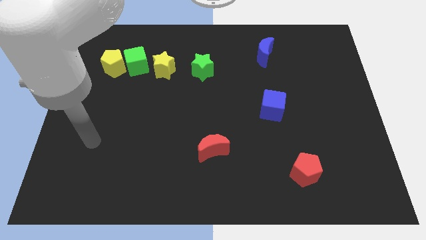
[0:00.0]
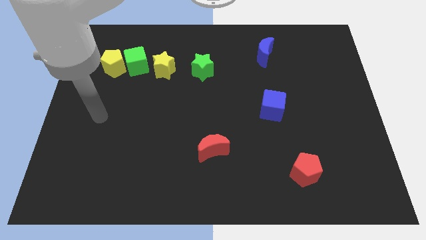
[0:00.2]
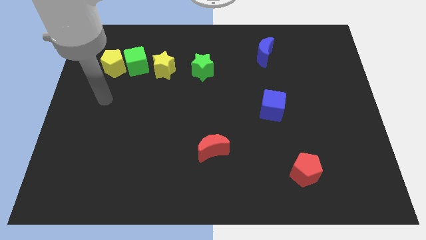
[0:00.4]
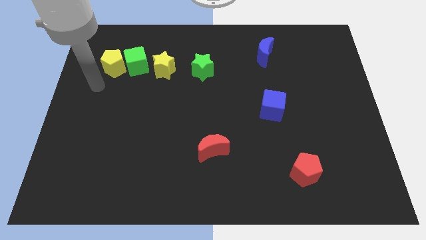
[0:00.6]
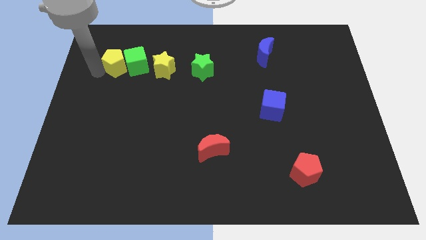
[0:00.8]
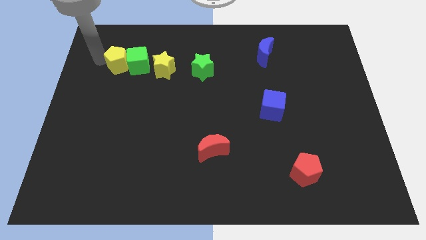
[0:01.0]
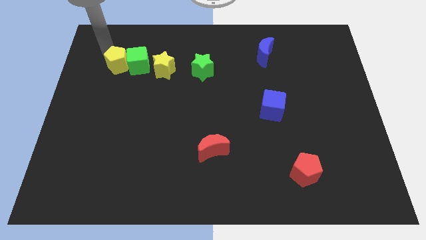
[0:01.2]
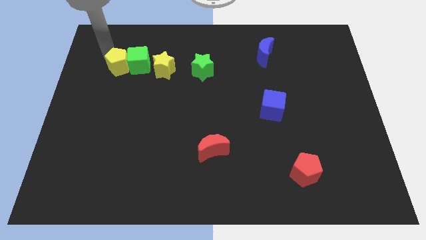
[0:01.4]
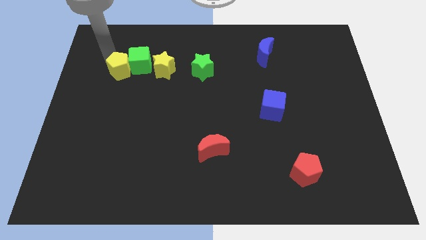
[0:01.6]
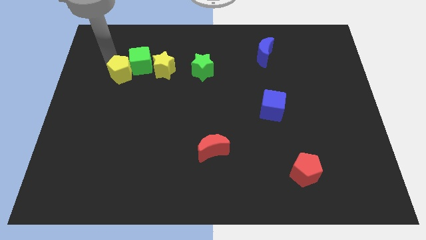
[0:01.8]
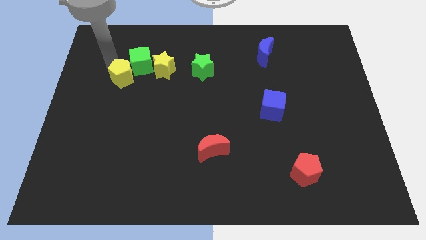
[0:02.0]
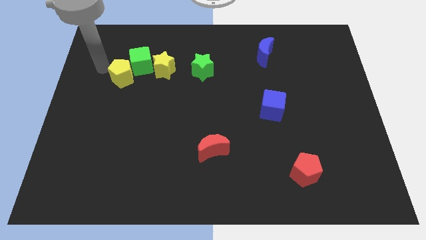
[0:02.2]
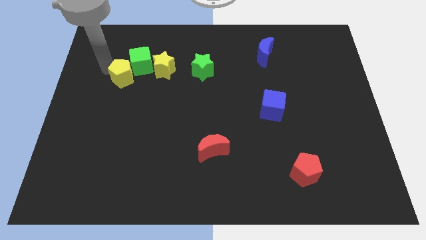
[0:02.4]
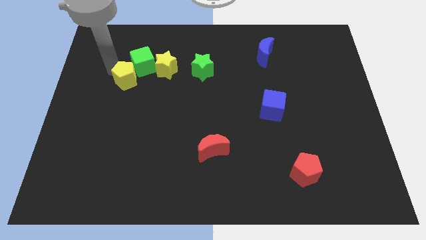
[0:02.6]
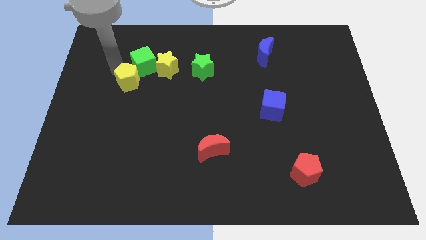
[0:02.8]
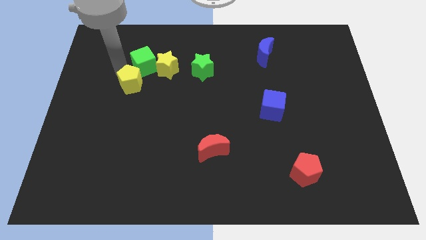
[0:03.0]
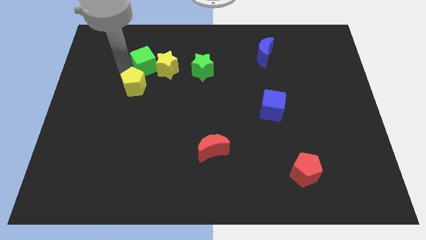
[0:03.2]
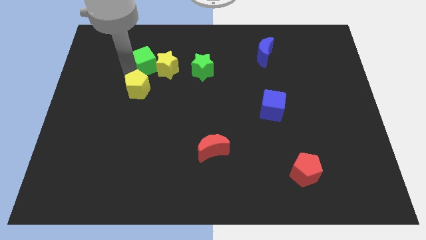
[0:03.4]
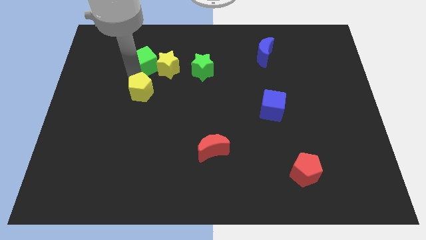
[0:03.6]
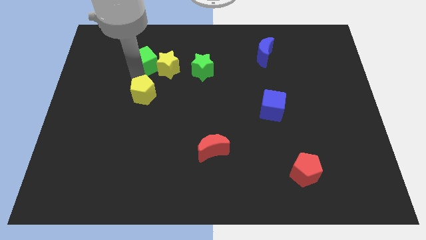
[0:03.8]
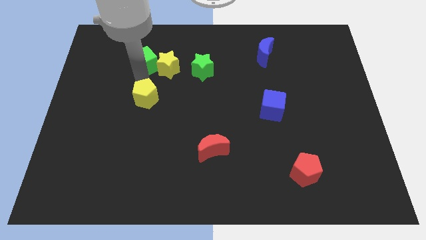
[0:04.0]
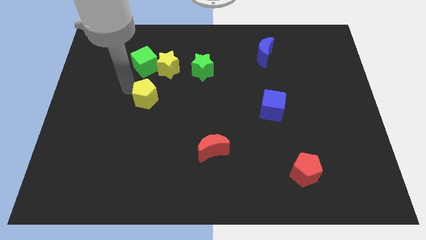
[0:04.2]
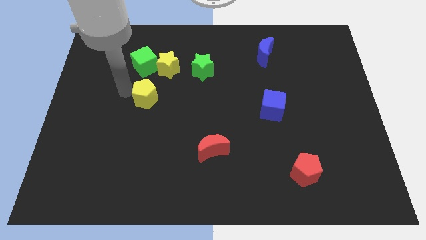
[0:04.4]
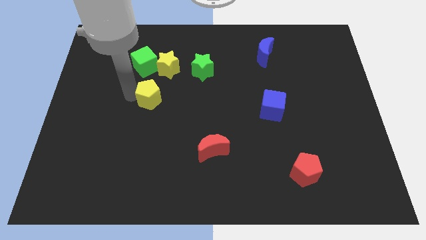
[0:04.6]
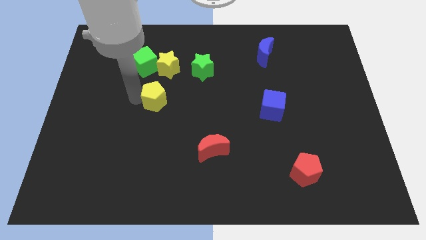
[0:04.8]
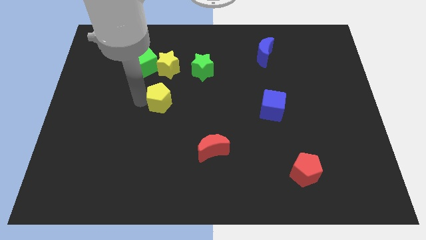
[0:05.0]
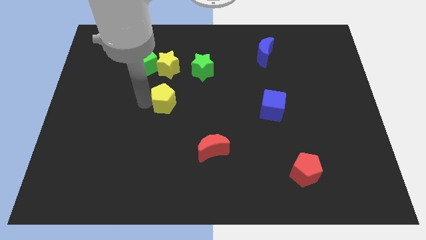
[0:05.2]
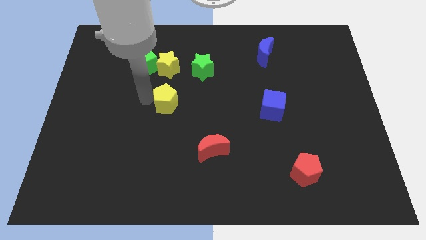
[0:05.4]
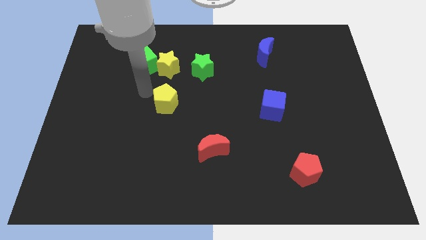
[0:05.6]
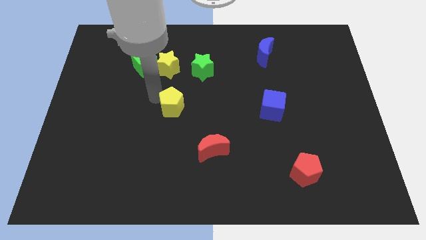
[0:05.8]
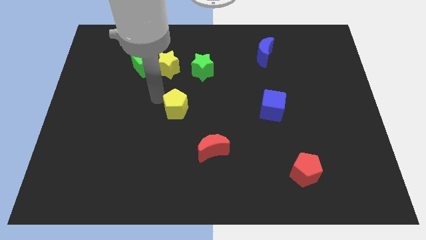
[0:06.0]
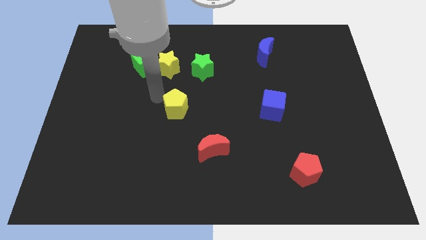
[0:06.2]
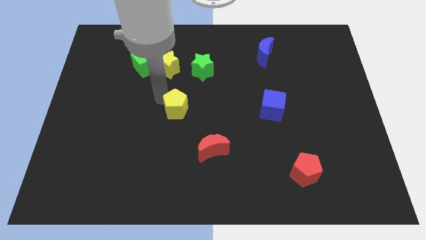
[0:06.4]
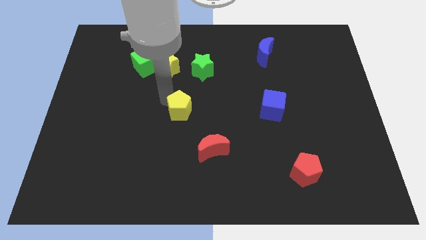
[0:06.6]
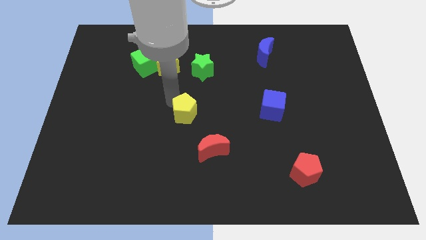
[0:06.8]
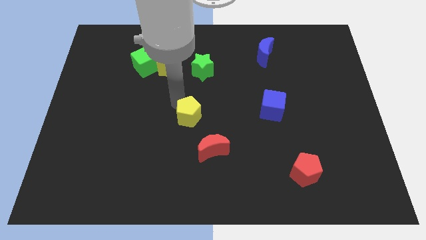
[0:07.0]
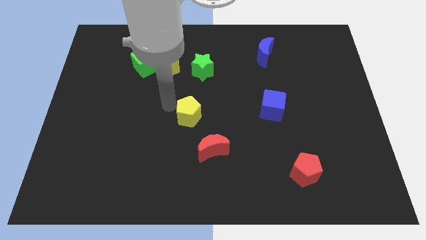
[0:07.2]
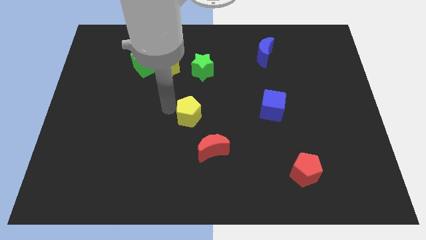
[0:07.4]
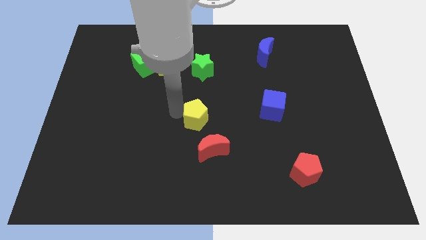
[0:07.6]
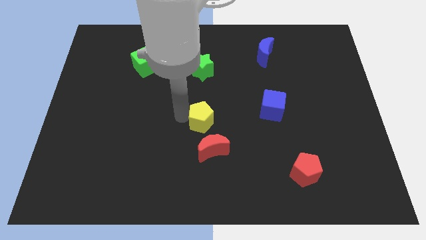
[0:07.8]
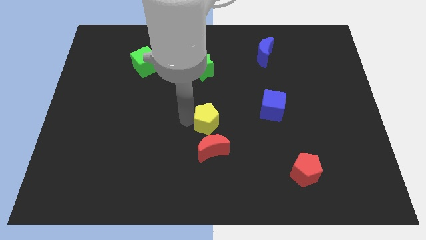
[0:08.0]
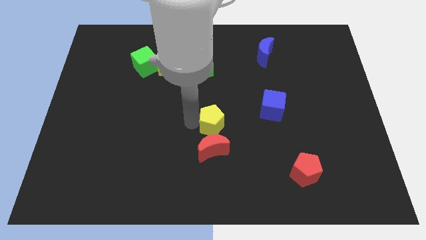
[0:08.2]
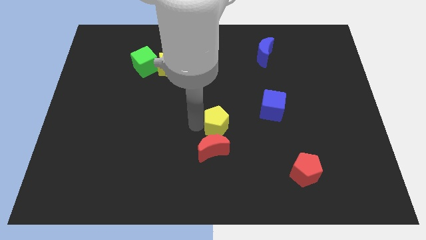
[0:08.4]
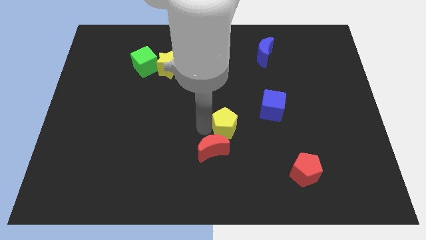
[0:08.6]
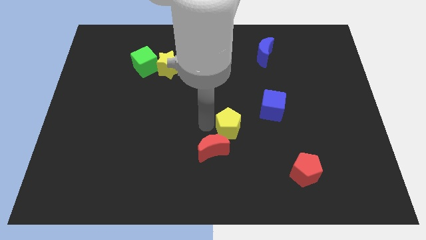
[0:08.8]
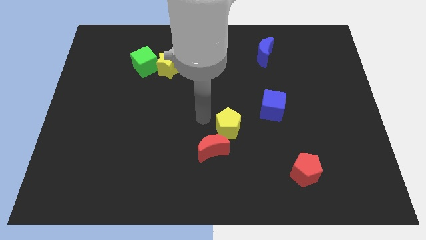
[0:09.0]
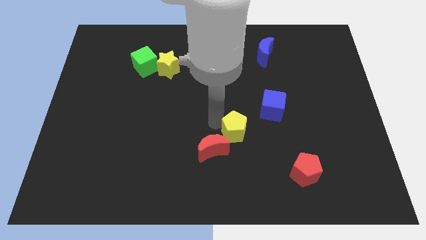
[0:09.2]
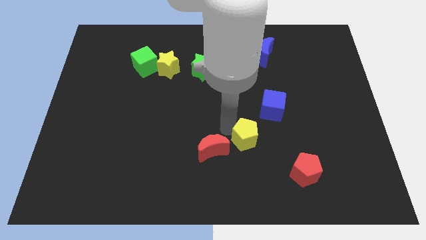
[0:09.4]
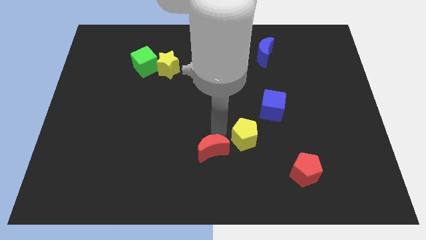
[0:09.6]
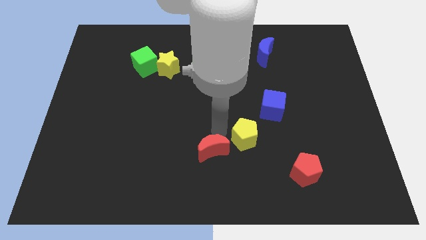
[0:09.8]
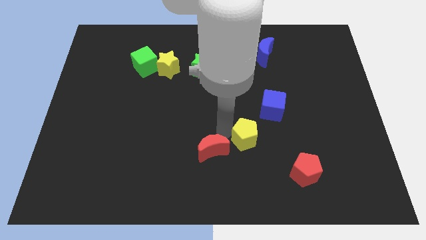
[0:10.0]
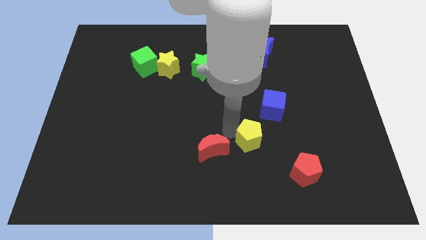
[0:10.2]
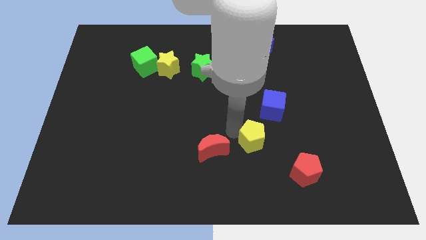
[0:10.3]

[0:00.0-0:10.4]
slide the yellow pentagon to the top left of the red pentagon

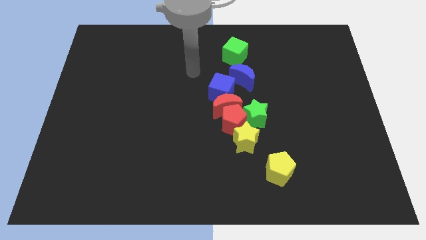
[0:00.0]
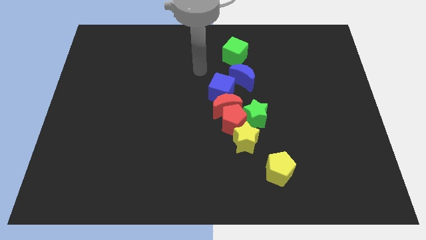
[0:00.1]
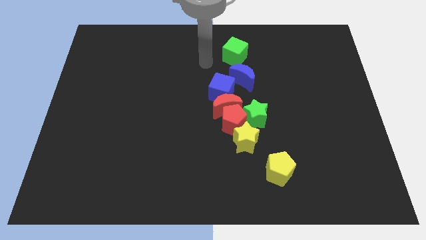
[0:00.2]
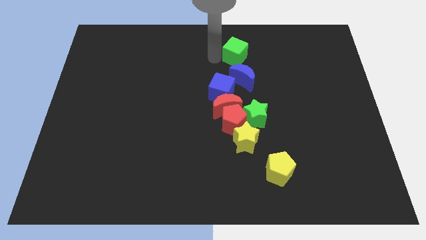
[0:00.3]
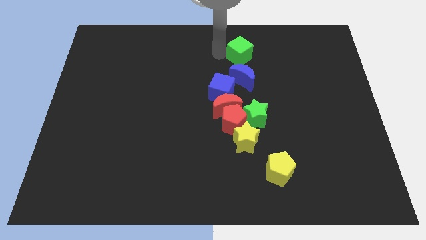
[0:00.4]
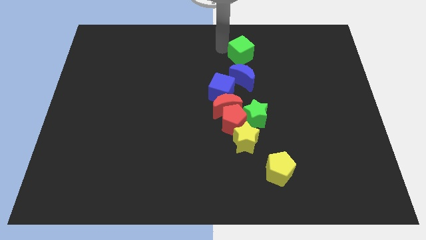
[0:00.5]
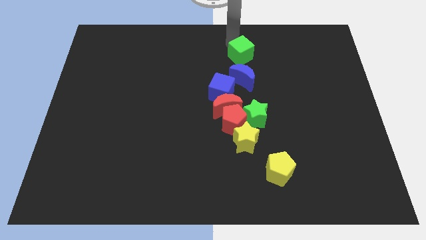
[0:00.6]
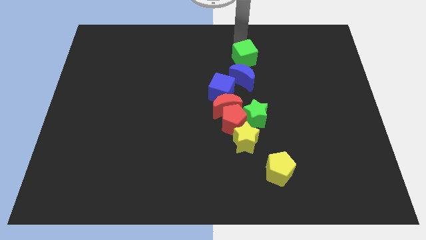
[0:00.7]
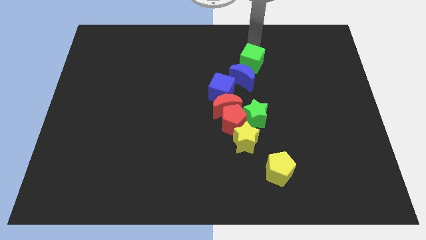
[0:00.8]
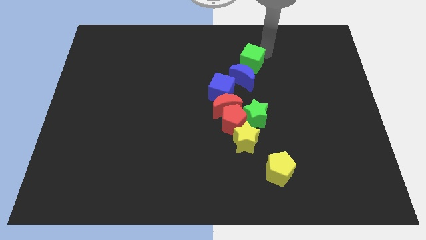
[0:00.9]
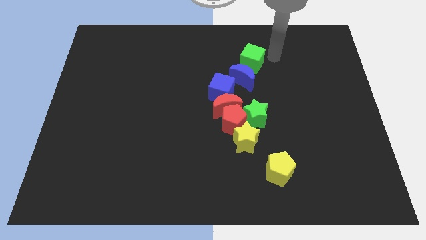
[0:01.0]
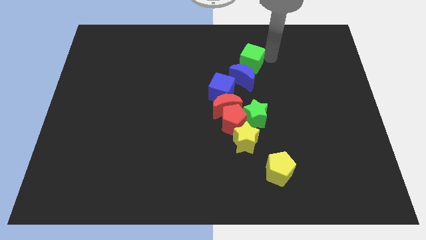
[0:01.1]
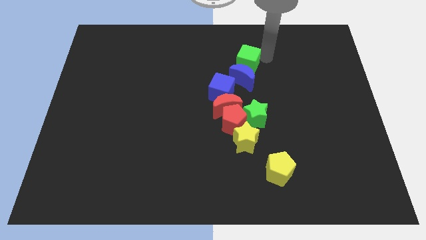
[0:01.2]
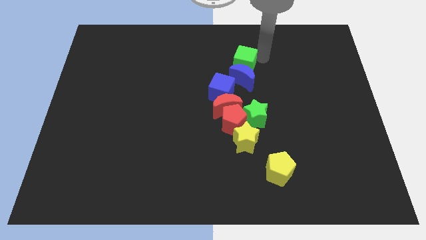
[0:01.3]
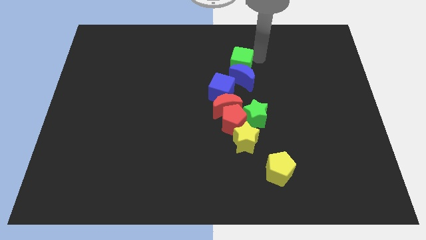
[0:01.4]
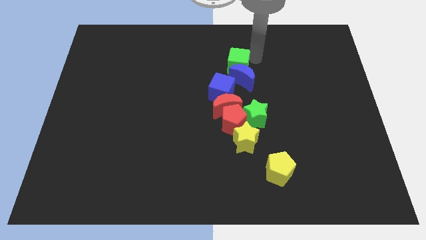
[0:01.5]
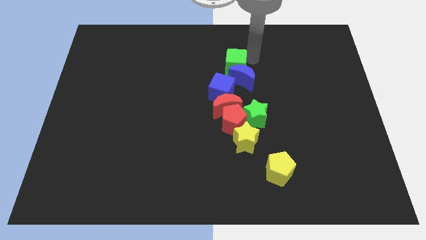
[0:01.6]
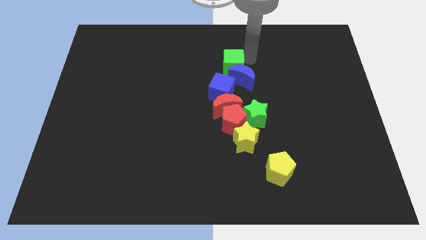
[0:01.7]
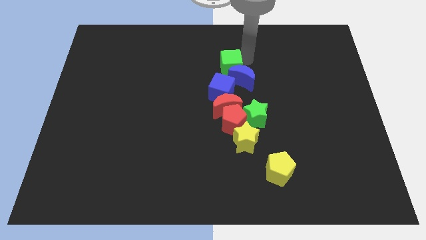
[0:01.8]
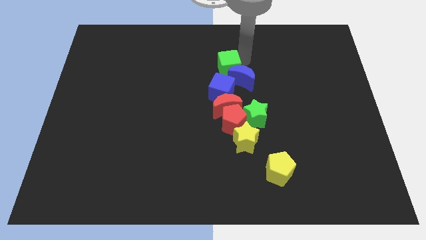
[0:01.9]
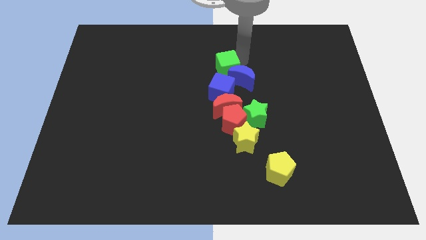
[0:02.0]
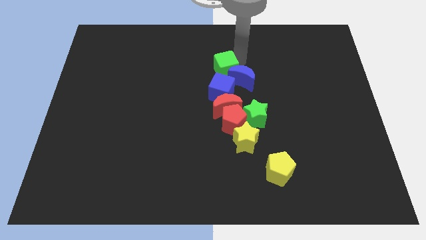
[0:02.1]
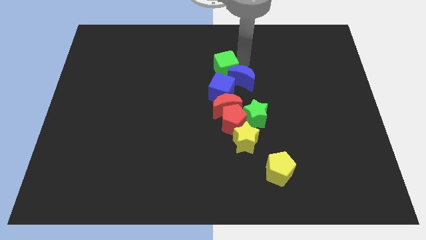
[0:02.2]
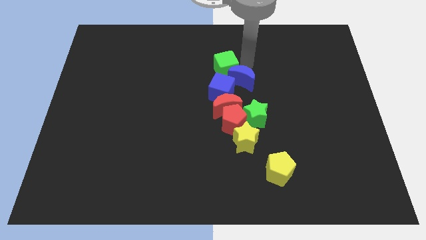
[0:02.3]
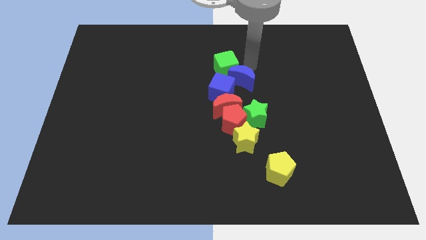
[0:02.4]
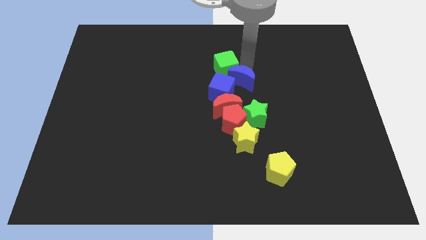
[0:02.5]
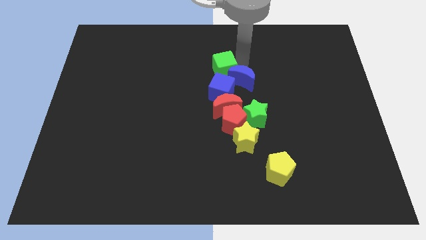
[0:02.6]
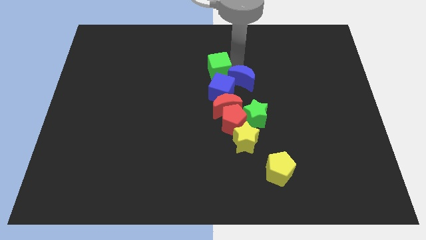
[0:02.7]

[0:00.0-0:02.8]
push the green cube diagonally up and to the left of the blue cube
